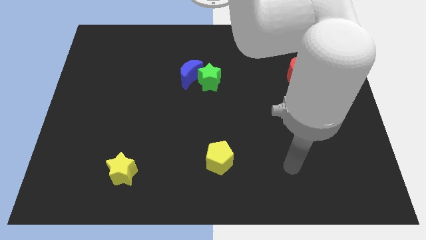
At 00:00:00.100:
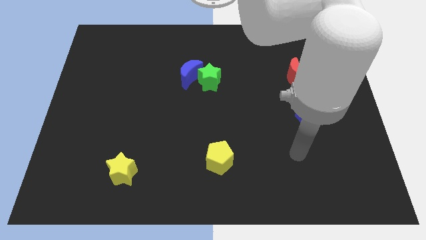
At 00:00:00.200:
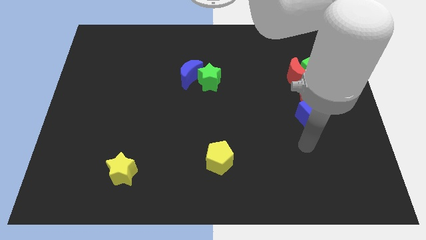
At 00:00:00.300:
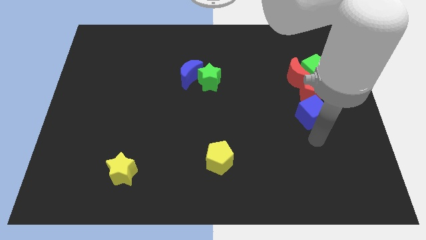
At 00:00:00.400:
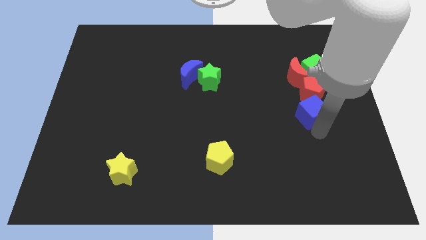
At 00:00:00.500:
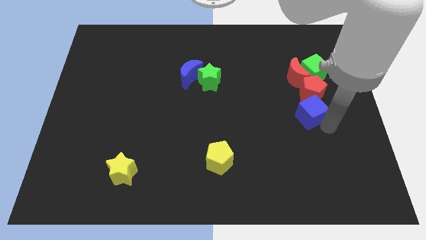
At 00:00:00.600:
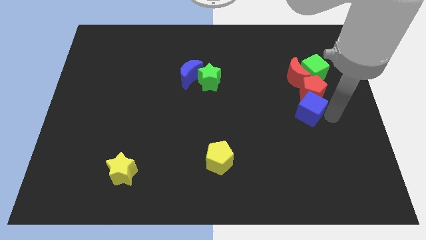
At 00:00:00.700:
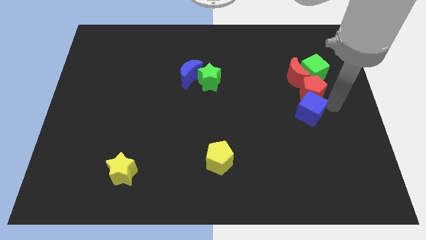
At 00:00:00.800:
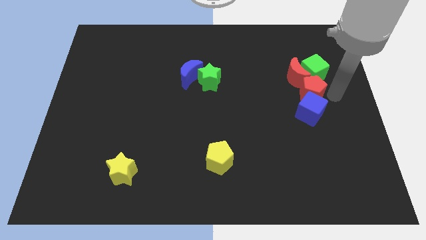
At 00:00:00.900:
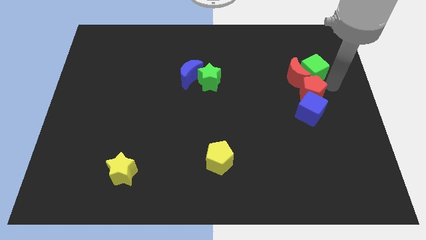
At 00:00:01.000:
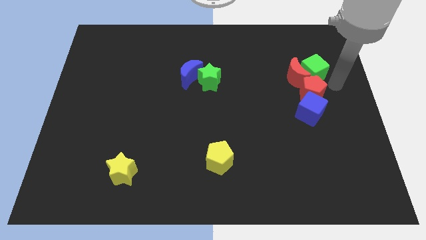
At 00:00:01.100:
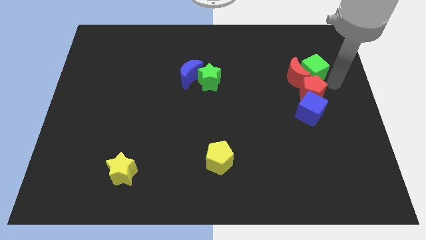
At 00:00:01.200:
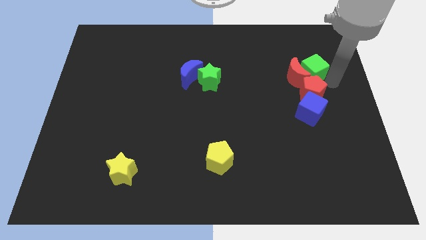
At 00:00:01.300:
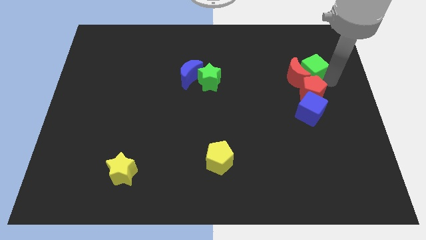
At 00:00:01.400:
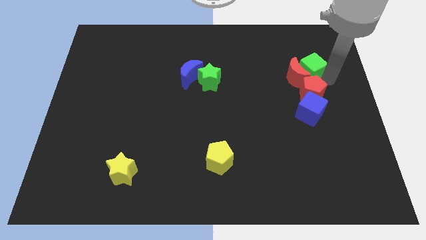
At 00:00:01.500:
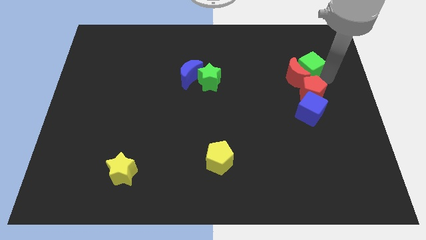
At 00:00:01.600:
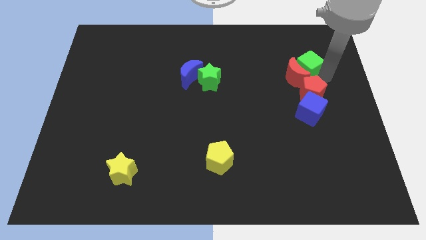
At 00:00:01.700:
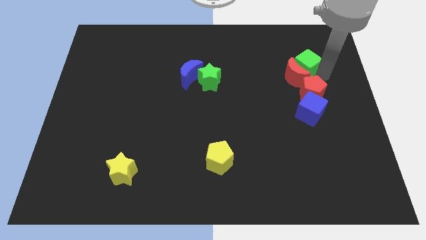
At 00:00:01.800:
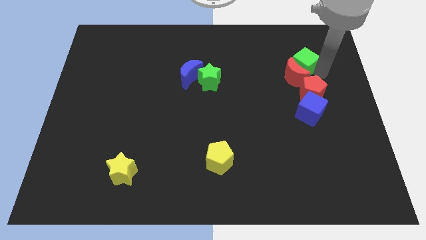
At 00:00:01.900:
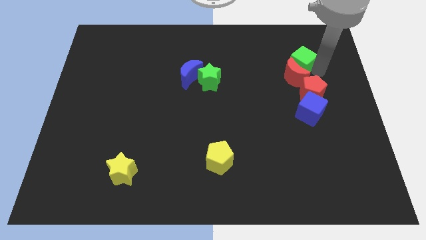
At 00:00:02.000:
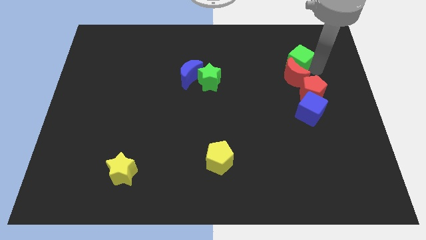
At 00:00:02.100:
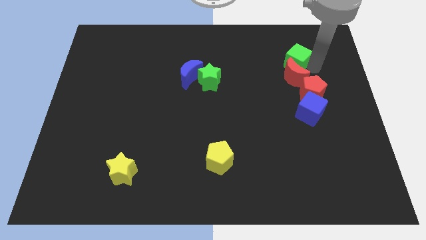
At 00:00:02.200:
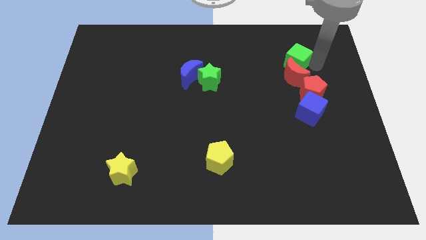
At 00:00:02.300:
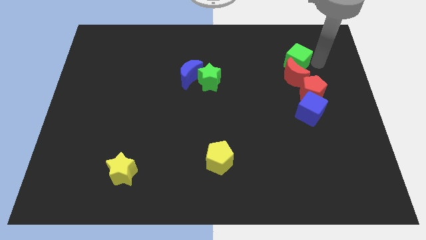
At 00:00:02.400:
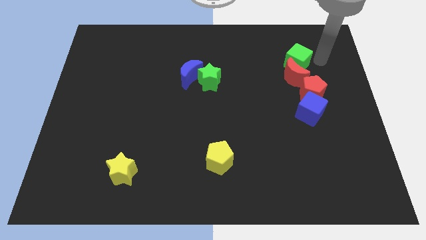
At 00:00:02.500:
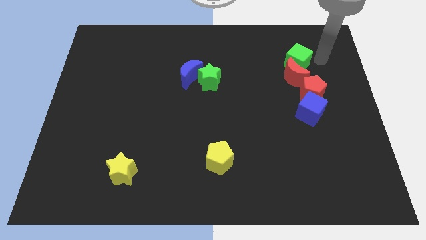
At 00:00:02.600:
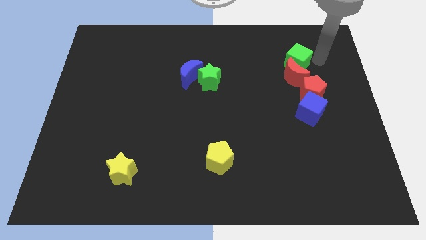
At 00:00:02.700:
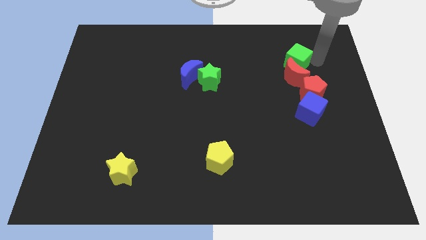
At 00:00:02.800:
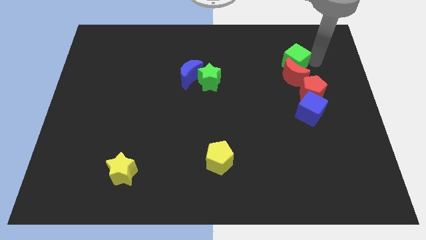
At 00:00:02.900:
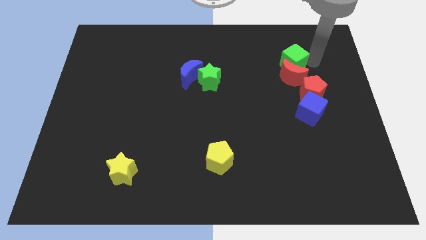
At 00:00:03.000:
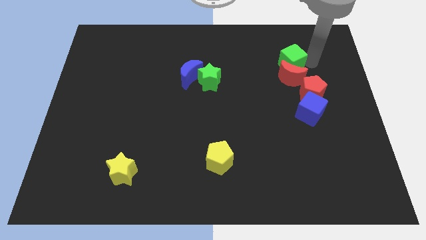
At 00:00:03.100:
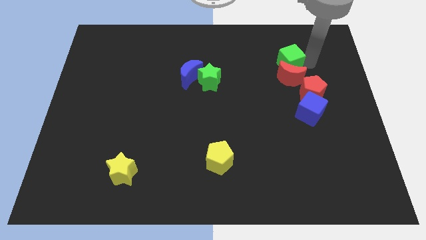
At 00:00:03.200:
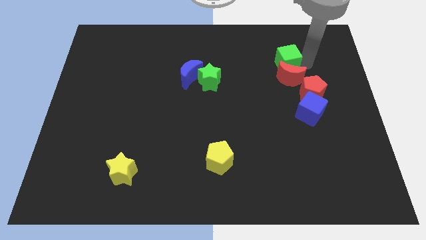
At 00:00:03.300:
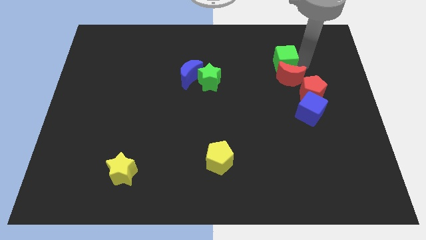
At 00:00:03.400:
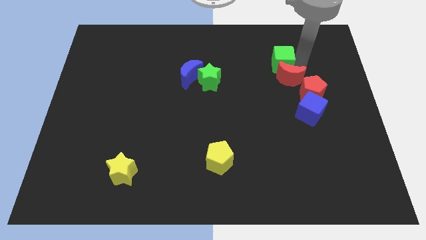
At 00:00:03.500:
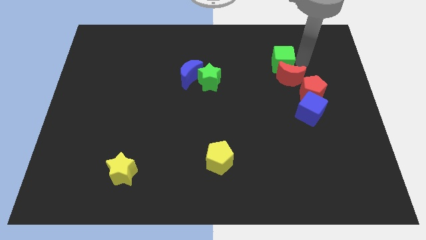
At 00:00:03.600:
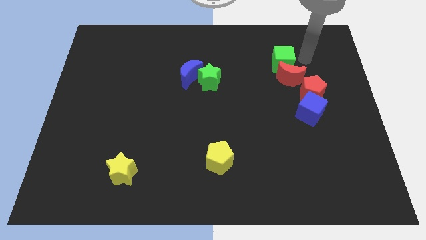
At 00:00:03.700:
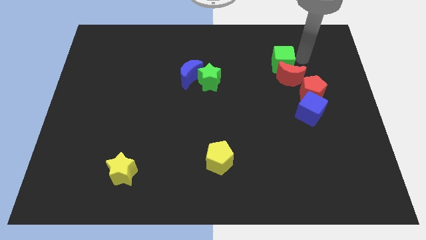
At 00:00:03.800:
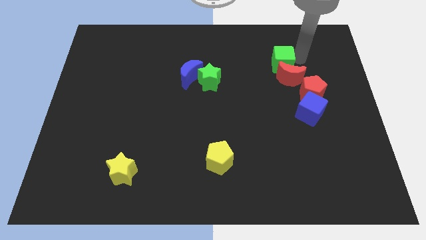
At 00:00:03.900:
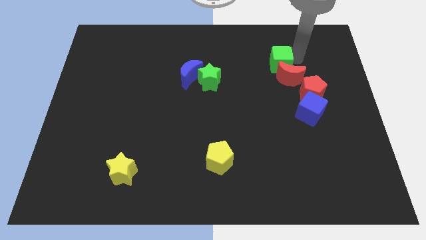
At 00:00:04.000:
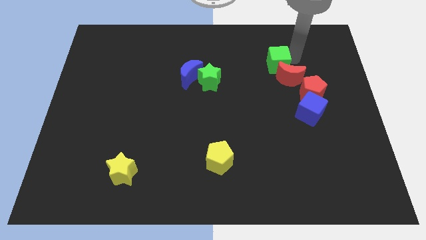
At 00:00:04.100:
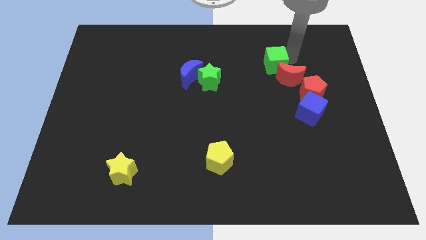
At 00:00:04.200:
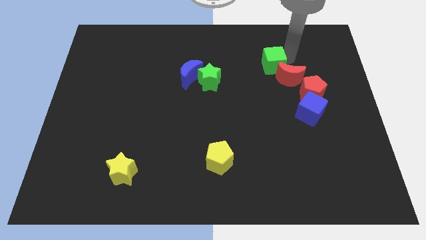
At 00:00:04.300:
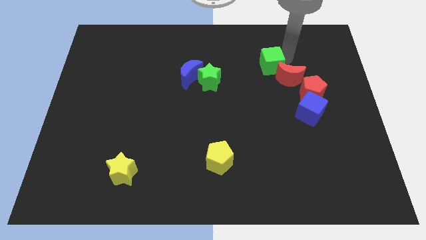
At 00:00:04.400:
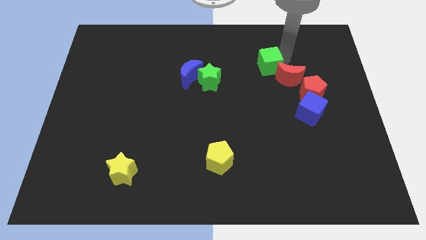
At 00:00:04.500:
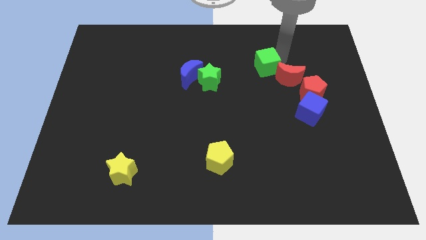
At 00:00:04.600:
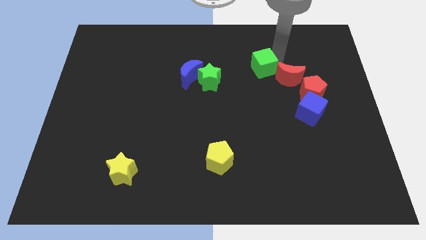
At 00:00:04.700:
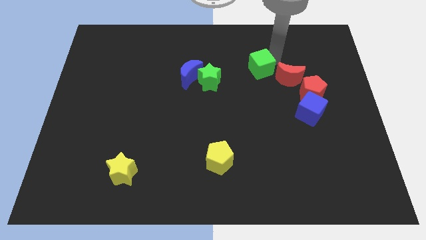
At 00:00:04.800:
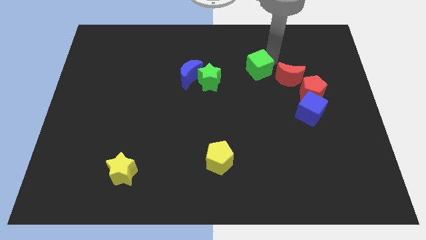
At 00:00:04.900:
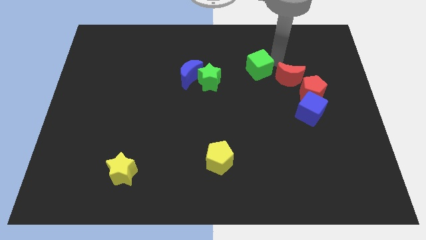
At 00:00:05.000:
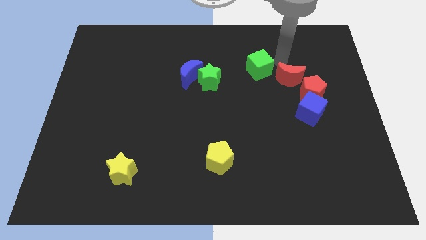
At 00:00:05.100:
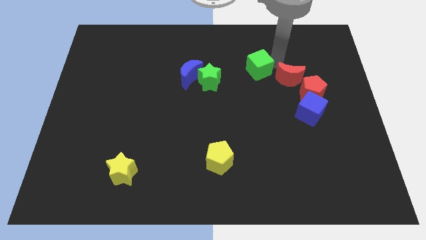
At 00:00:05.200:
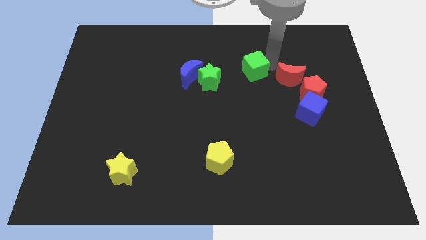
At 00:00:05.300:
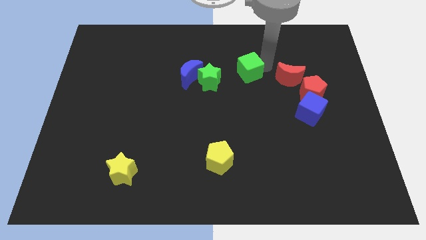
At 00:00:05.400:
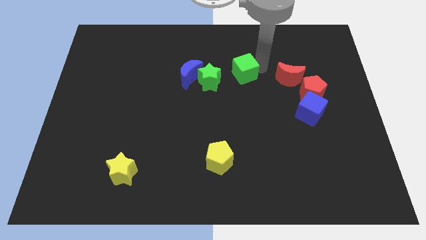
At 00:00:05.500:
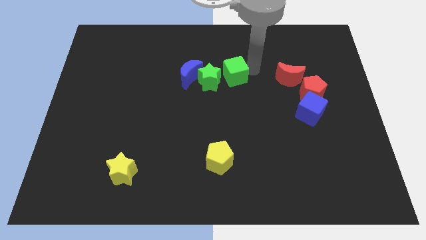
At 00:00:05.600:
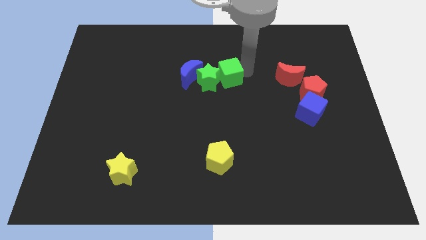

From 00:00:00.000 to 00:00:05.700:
slide the green cube towards the green star

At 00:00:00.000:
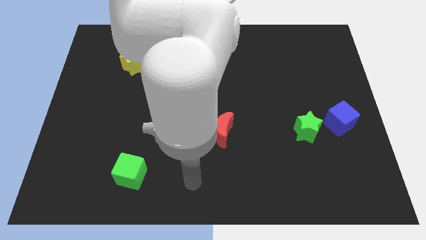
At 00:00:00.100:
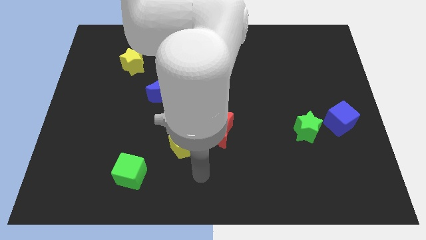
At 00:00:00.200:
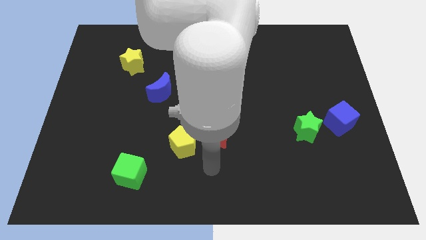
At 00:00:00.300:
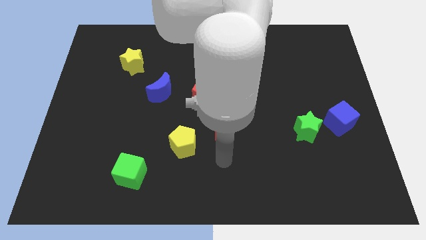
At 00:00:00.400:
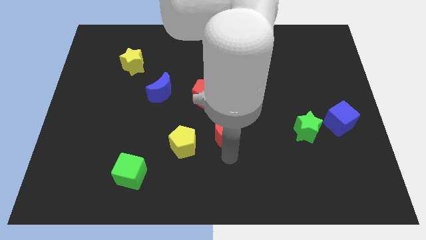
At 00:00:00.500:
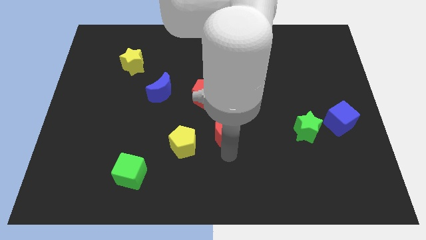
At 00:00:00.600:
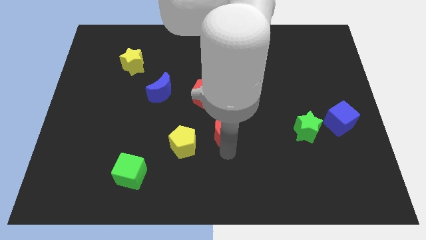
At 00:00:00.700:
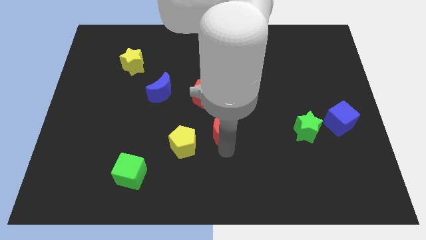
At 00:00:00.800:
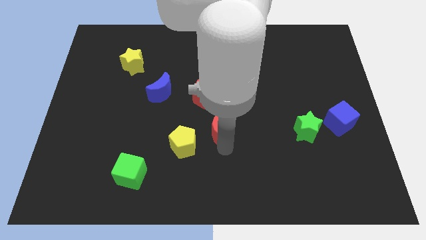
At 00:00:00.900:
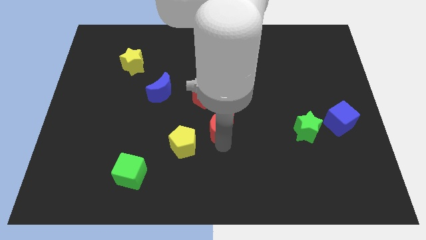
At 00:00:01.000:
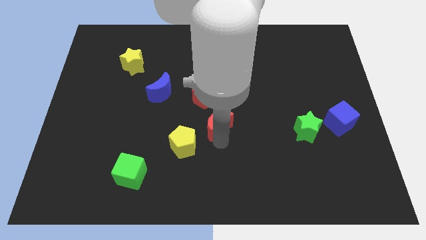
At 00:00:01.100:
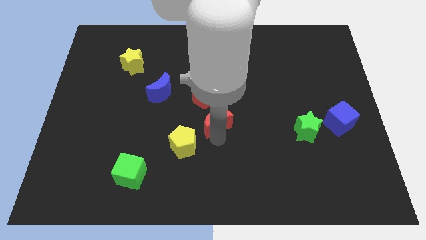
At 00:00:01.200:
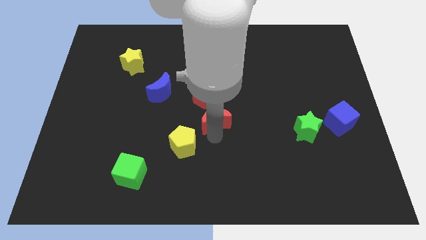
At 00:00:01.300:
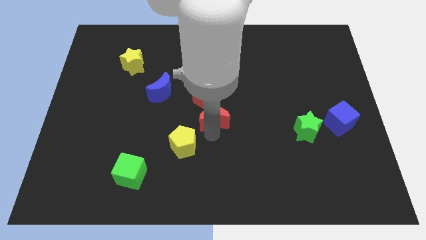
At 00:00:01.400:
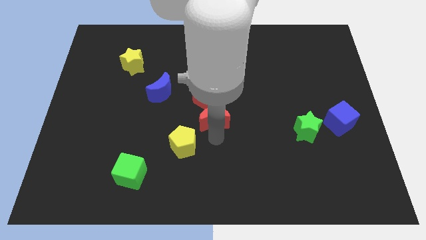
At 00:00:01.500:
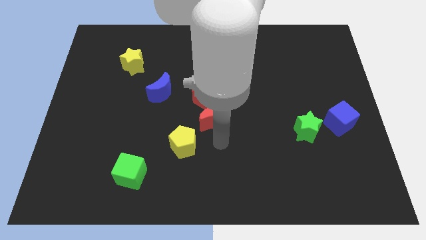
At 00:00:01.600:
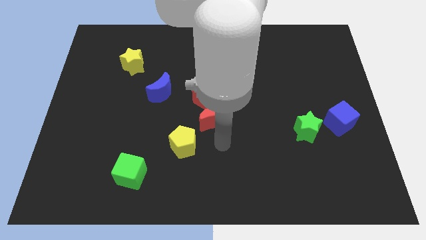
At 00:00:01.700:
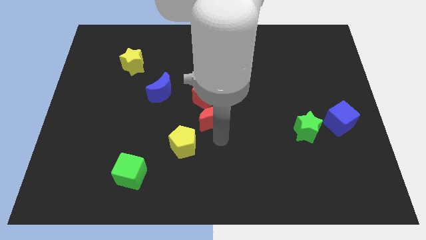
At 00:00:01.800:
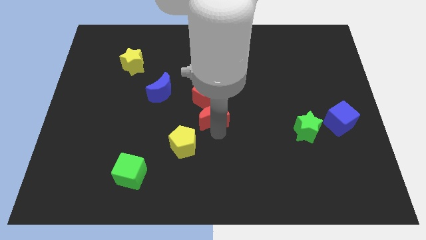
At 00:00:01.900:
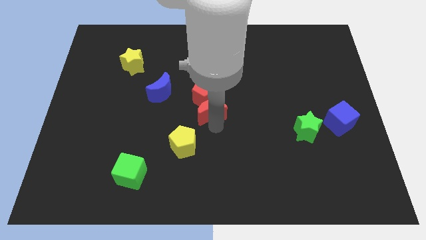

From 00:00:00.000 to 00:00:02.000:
slide the red moon towards the red pentagon
